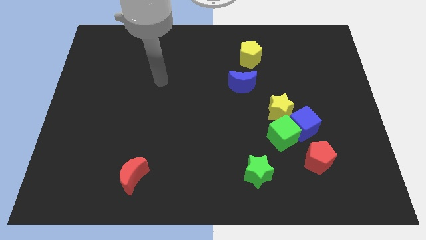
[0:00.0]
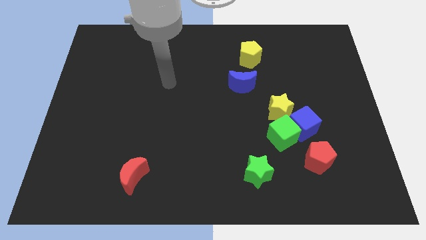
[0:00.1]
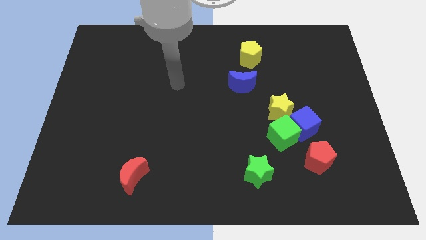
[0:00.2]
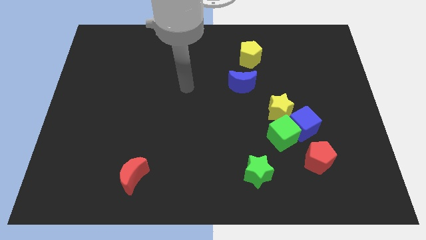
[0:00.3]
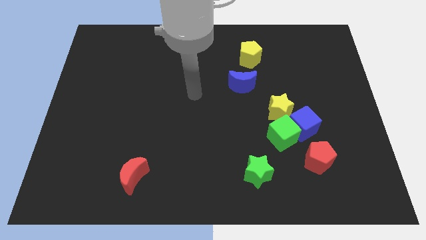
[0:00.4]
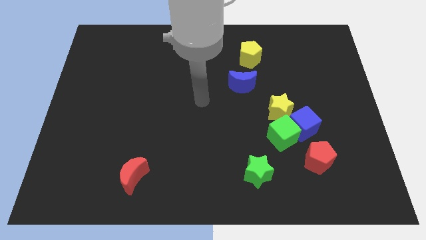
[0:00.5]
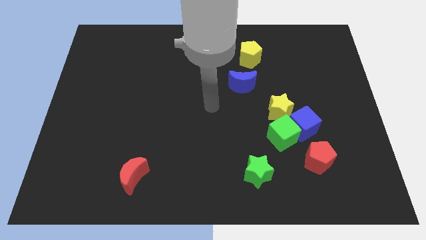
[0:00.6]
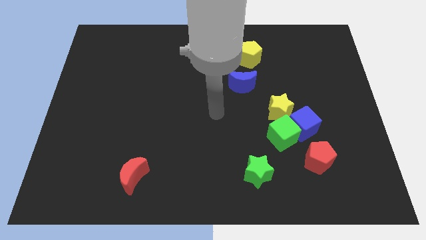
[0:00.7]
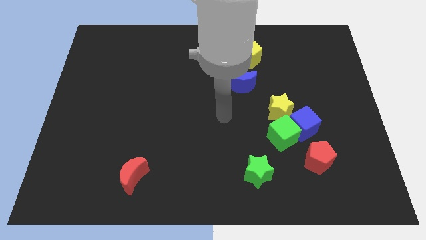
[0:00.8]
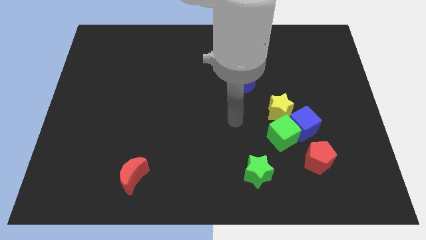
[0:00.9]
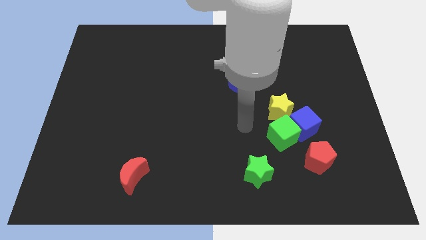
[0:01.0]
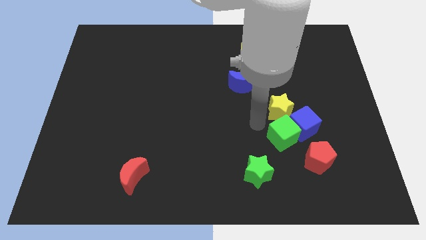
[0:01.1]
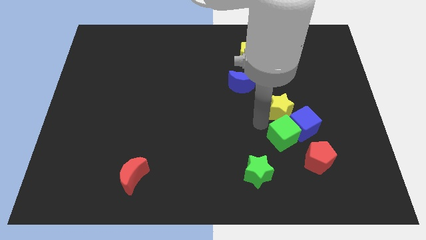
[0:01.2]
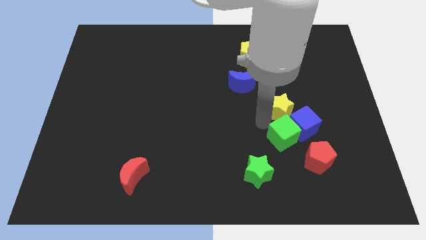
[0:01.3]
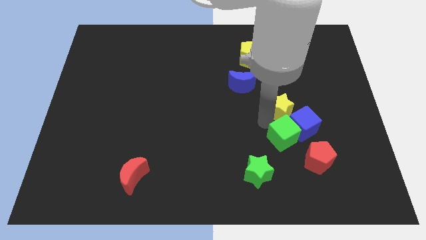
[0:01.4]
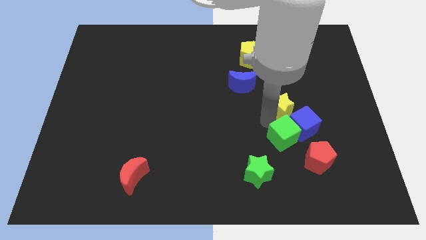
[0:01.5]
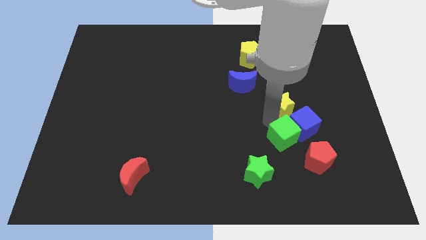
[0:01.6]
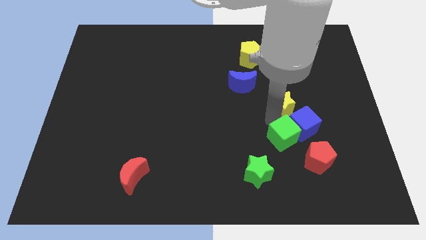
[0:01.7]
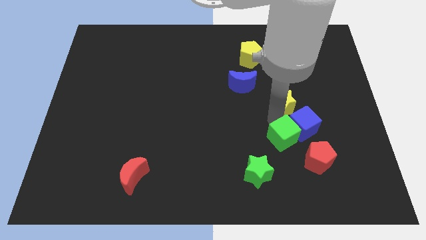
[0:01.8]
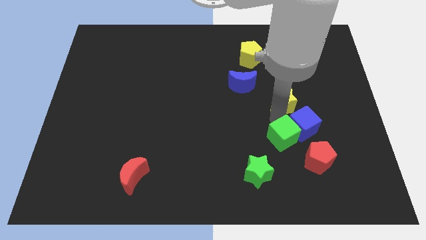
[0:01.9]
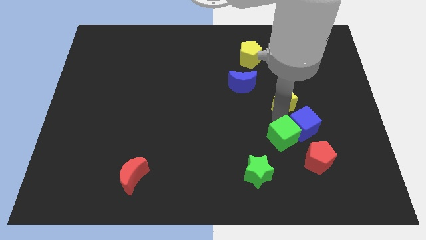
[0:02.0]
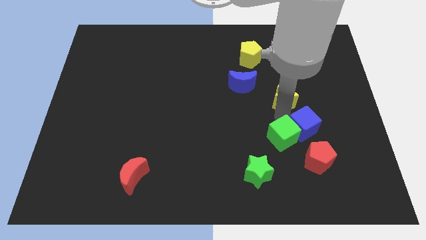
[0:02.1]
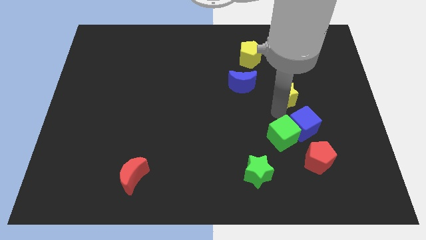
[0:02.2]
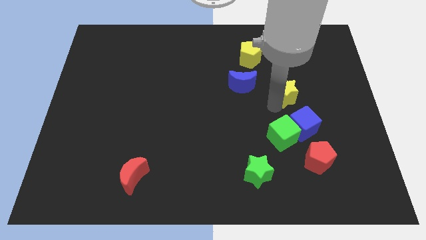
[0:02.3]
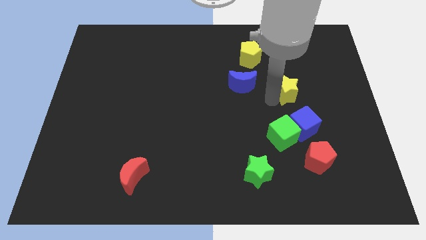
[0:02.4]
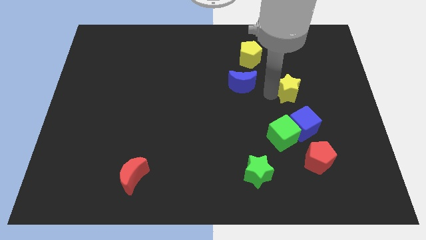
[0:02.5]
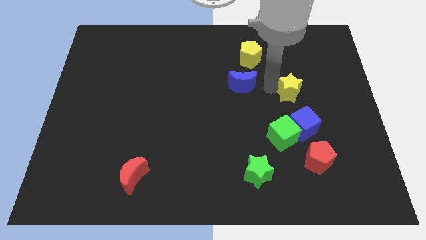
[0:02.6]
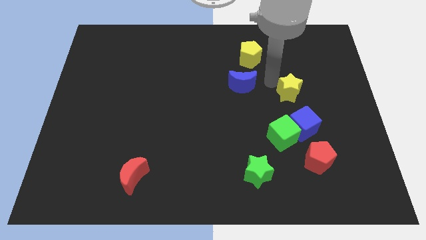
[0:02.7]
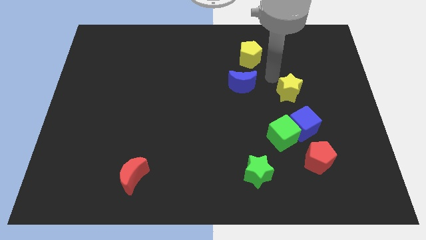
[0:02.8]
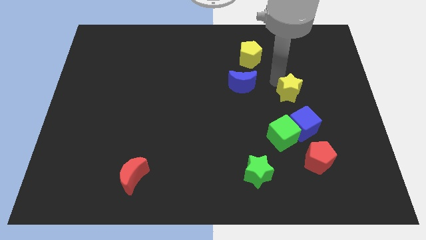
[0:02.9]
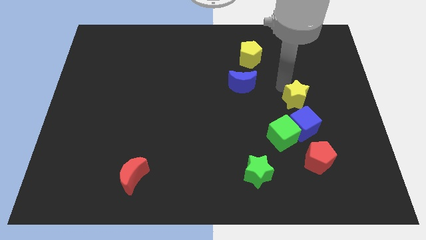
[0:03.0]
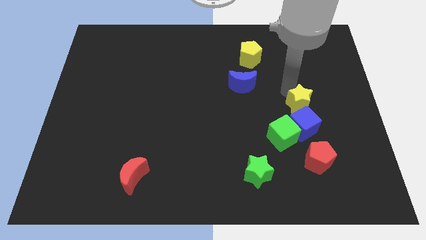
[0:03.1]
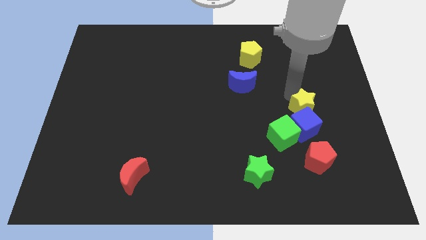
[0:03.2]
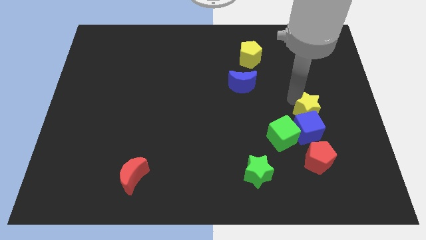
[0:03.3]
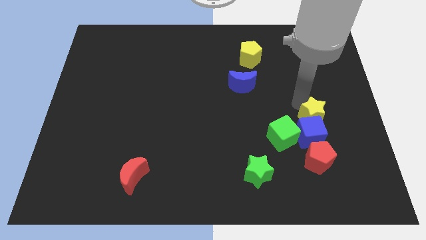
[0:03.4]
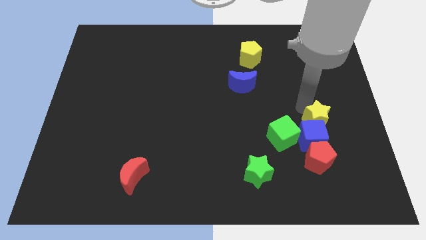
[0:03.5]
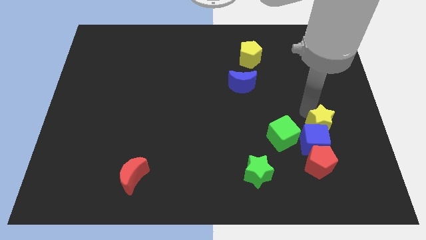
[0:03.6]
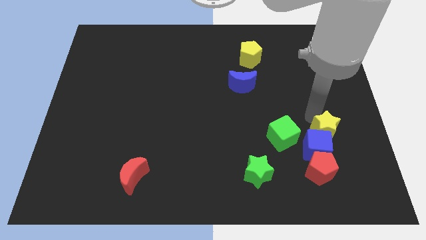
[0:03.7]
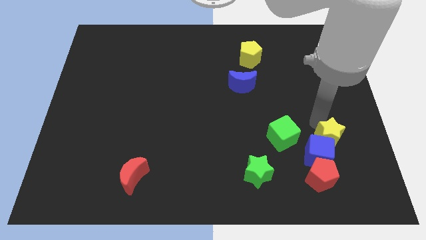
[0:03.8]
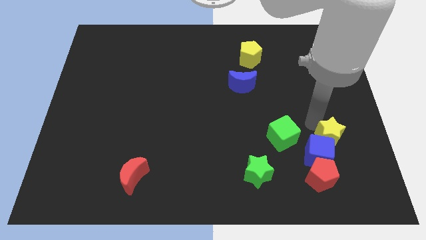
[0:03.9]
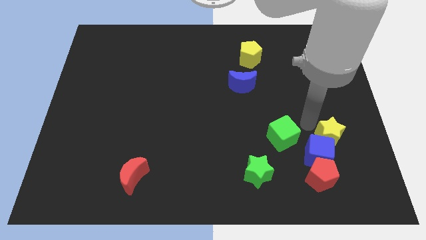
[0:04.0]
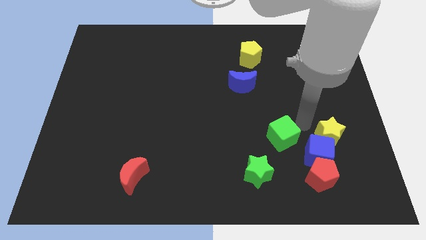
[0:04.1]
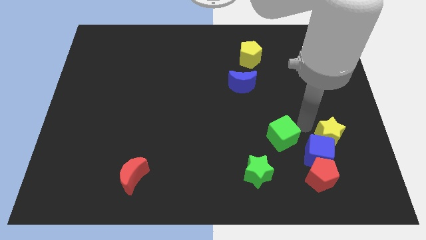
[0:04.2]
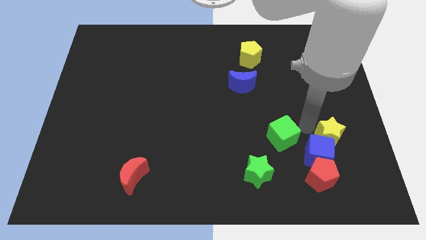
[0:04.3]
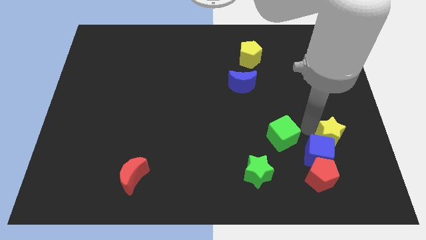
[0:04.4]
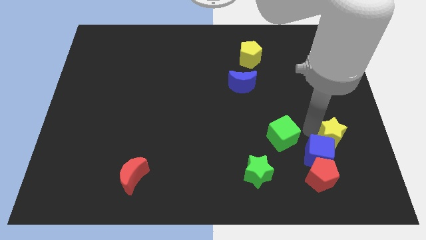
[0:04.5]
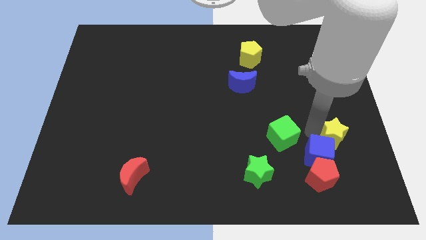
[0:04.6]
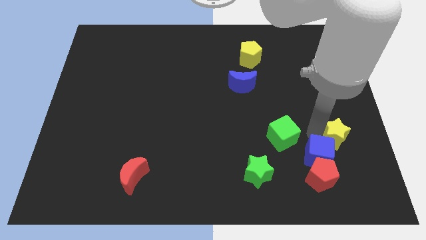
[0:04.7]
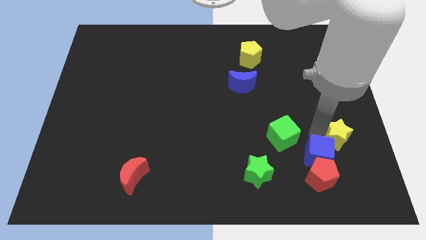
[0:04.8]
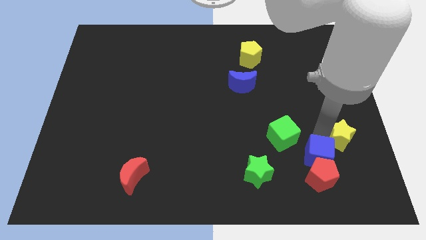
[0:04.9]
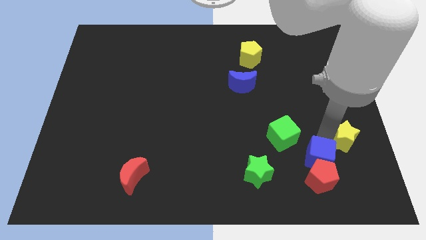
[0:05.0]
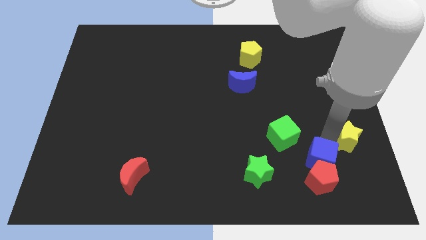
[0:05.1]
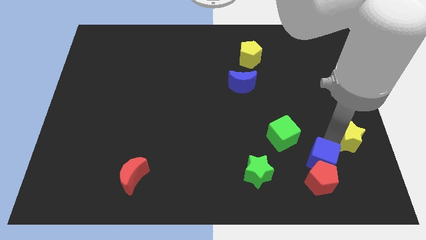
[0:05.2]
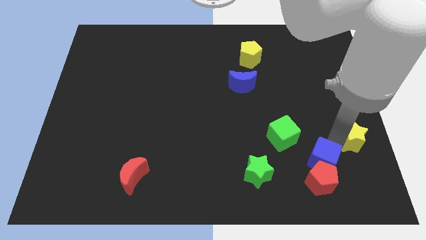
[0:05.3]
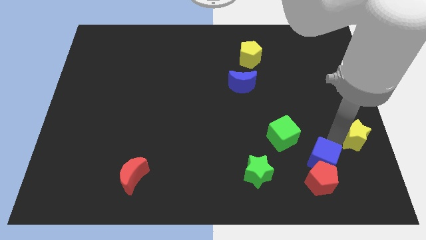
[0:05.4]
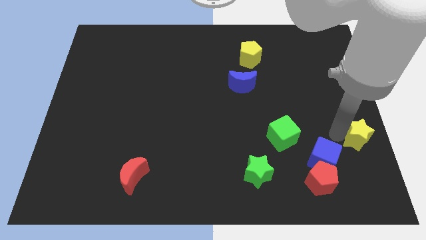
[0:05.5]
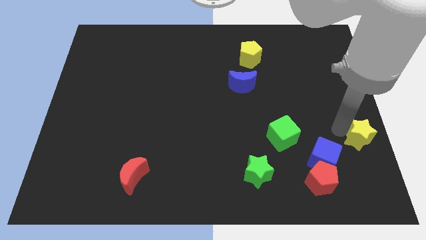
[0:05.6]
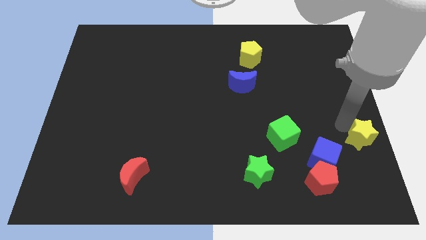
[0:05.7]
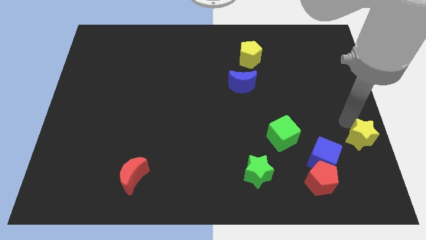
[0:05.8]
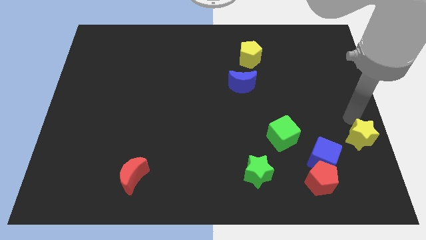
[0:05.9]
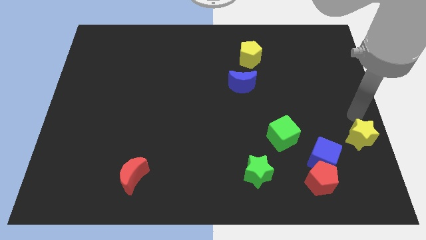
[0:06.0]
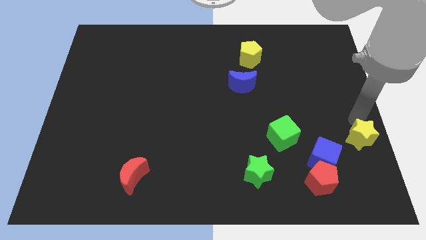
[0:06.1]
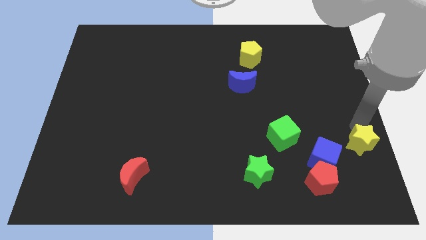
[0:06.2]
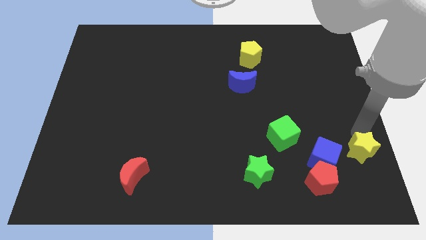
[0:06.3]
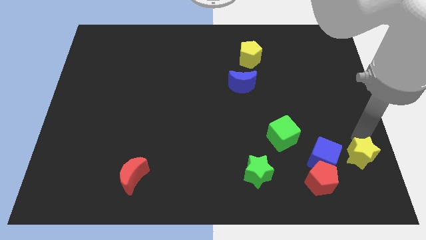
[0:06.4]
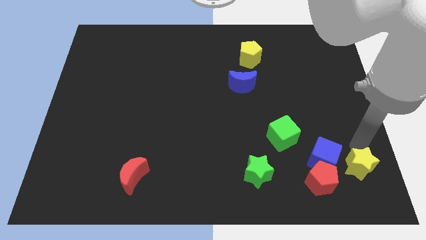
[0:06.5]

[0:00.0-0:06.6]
push the yellow star to the bottom right corner
